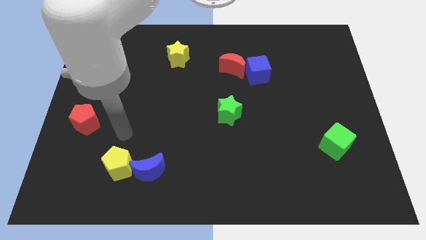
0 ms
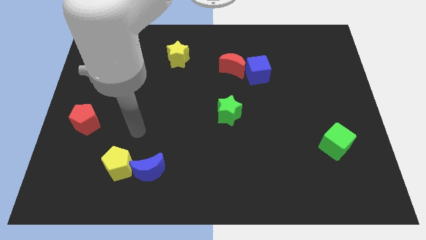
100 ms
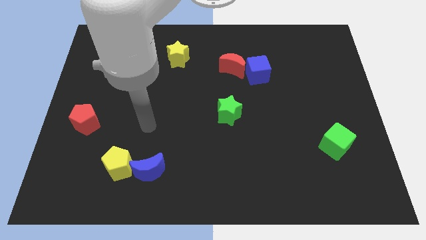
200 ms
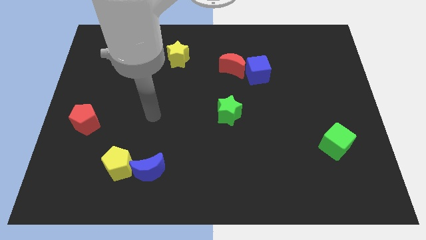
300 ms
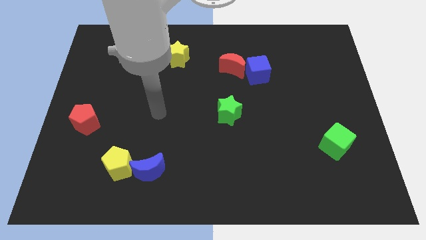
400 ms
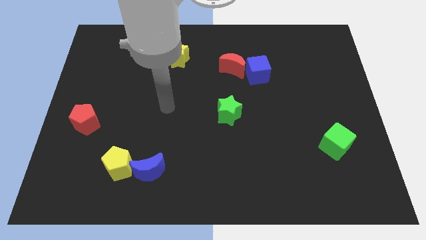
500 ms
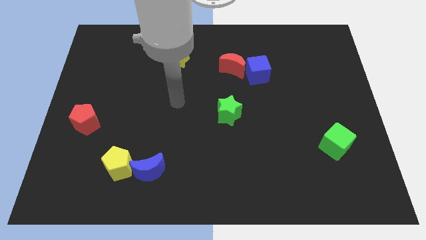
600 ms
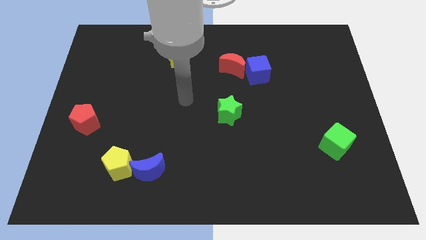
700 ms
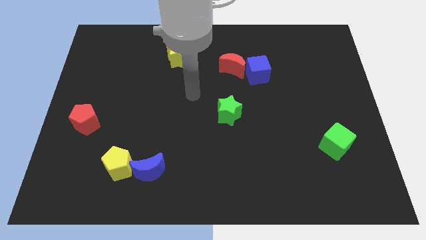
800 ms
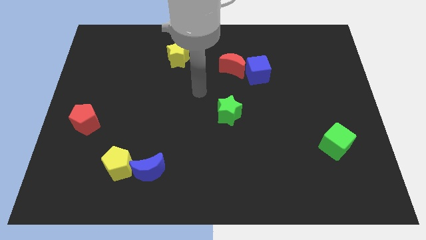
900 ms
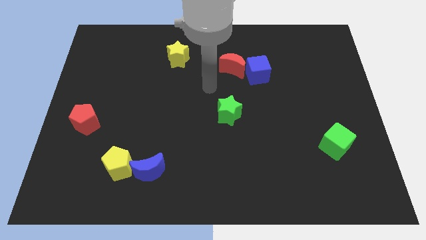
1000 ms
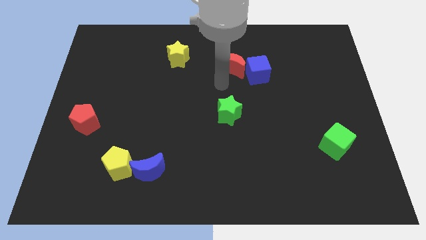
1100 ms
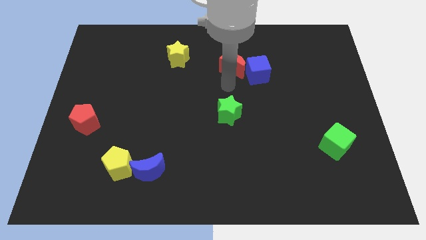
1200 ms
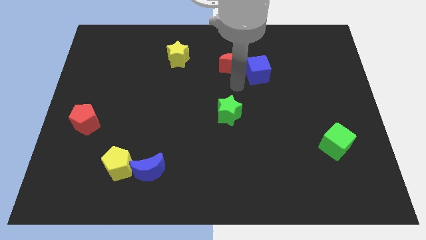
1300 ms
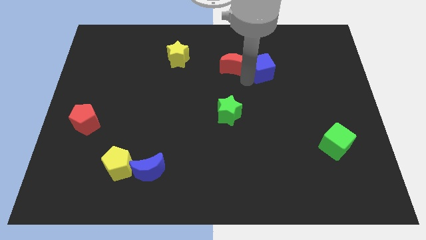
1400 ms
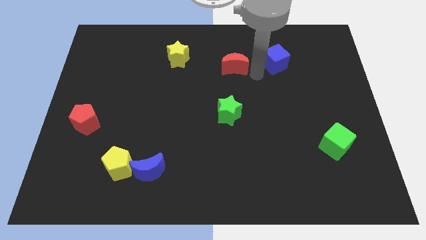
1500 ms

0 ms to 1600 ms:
separate the red moon from the blue cube

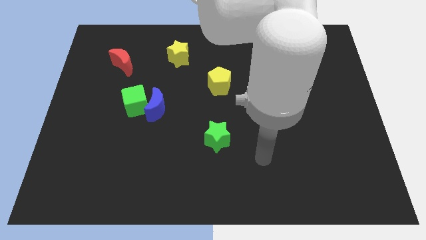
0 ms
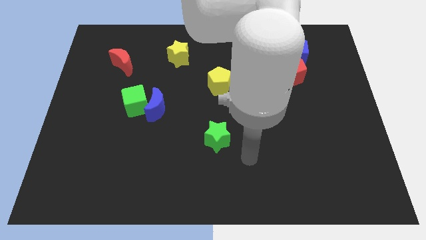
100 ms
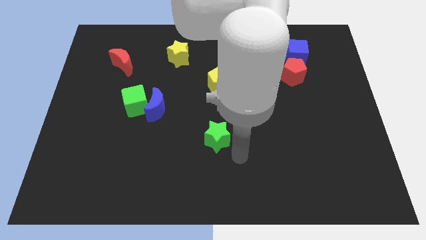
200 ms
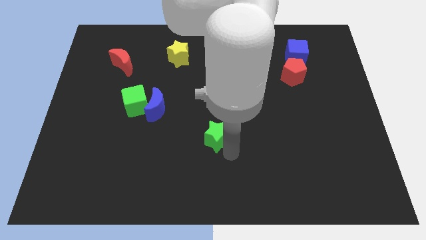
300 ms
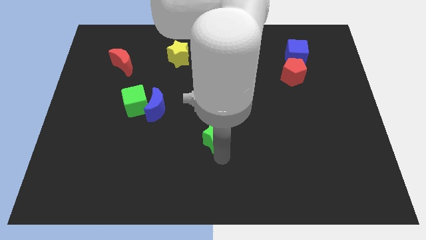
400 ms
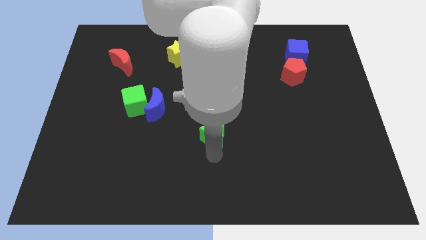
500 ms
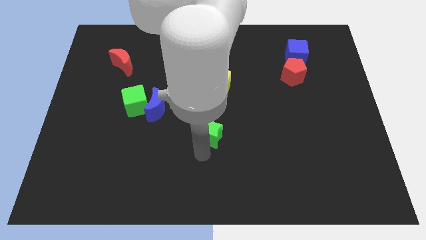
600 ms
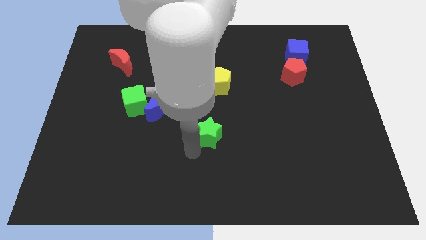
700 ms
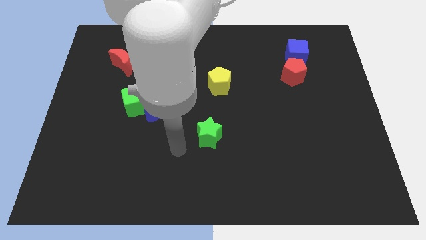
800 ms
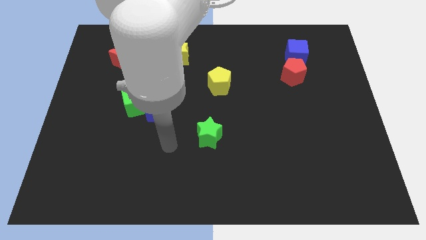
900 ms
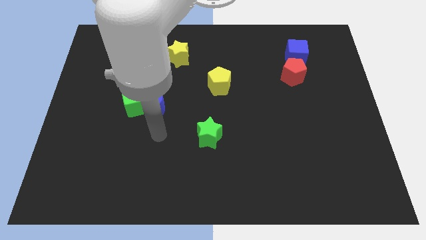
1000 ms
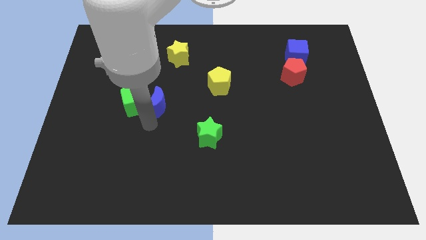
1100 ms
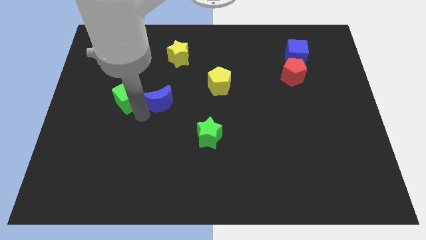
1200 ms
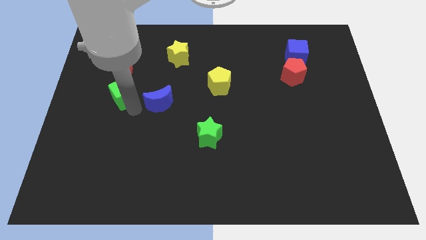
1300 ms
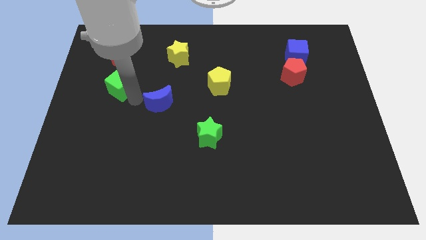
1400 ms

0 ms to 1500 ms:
pull the blue moon apart from the green cube

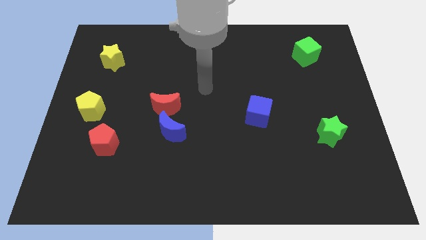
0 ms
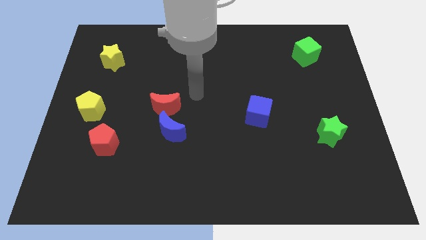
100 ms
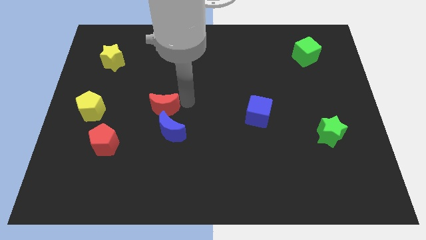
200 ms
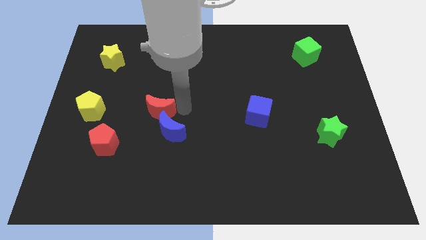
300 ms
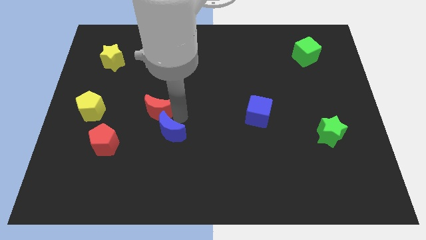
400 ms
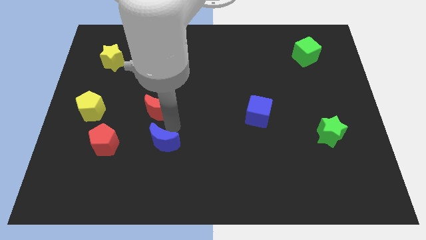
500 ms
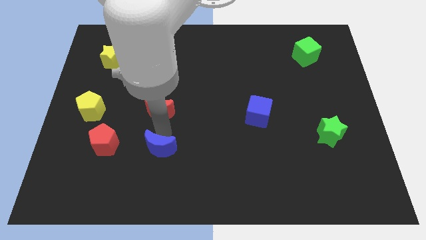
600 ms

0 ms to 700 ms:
move the red moon away from the blue moon

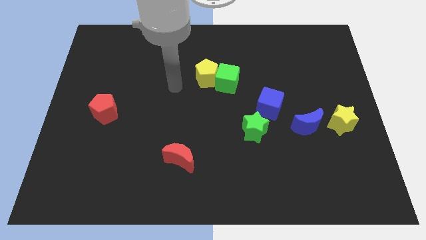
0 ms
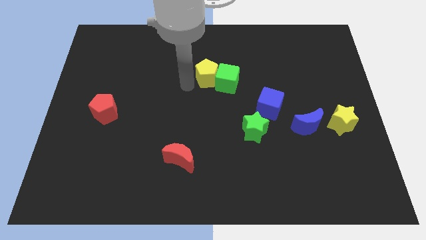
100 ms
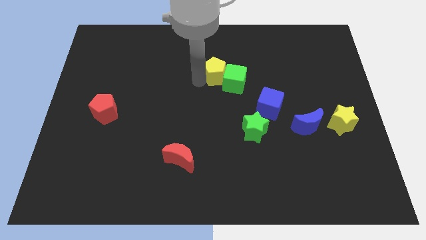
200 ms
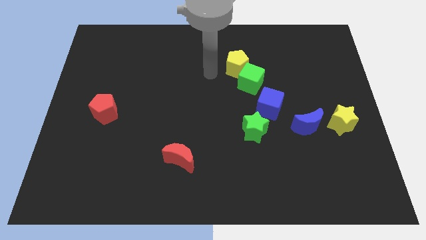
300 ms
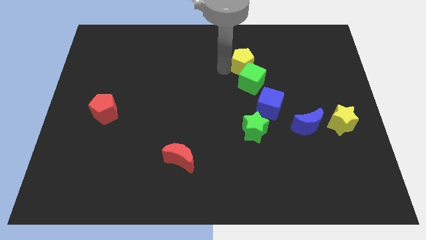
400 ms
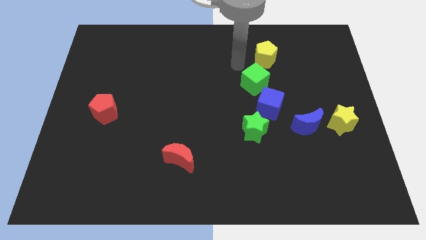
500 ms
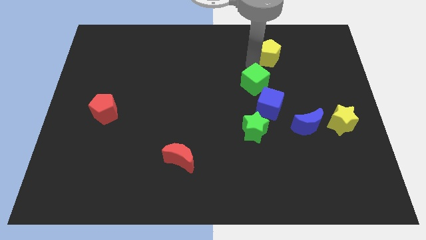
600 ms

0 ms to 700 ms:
move the green cube away from the yellow pentagon

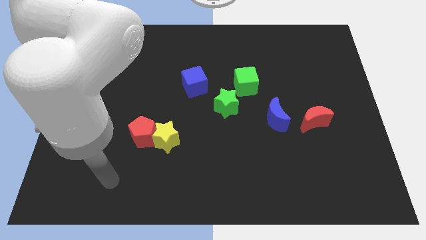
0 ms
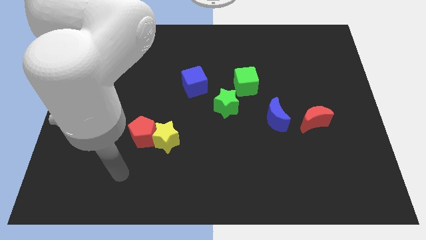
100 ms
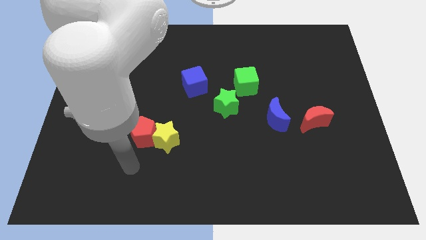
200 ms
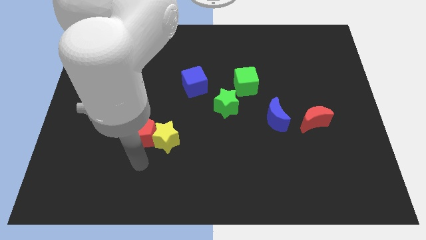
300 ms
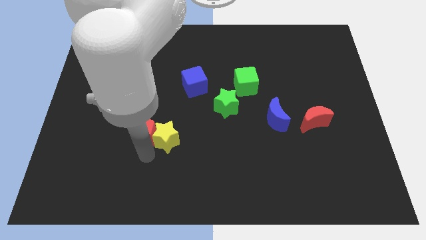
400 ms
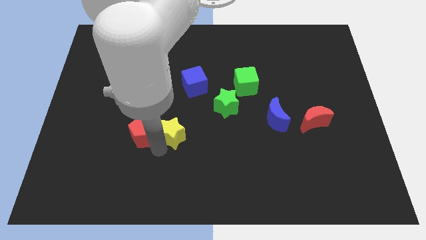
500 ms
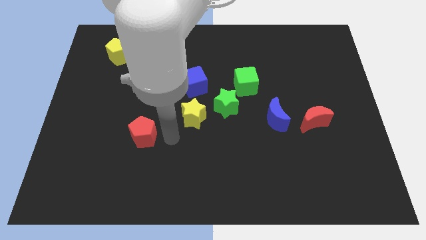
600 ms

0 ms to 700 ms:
pull the red pentagon apart from the yellow star

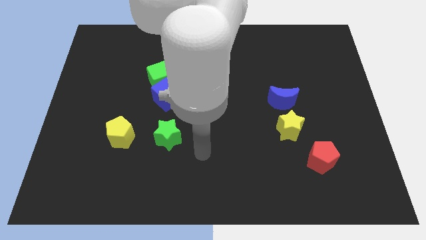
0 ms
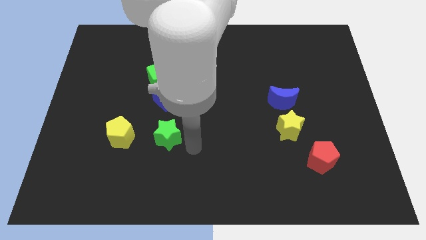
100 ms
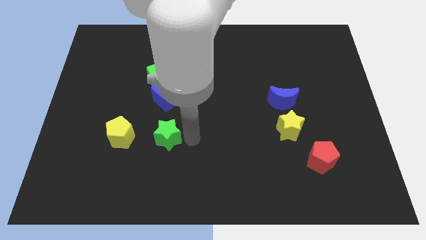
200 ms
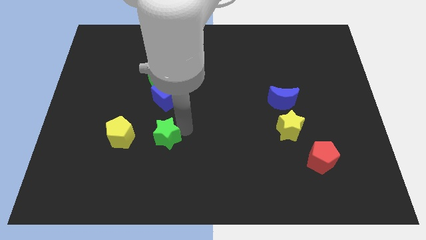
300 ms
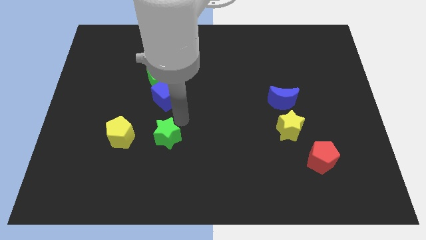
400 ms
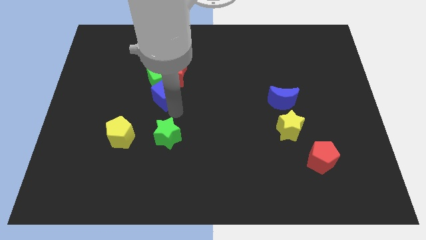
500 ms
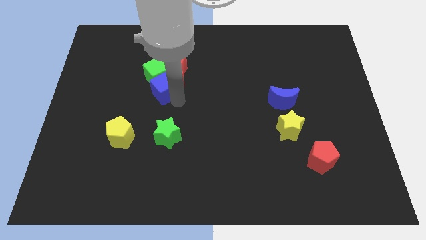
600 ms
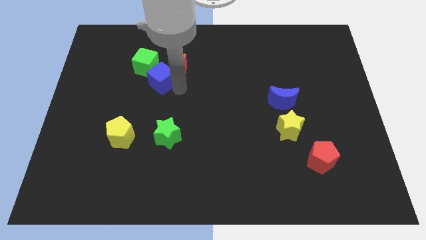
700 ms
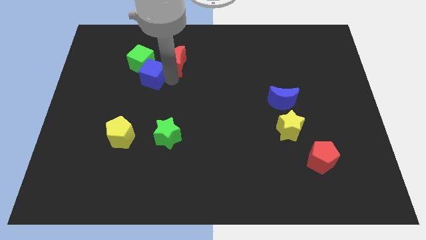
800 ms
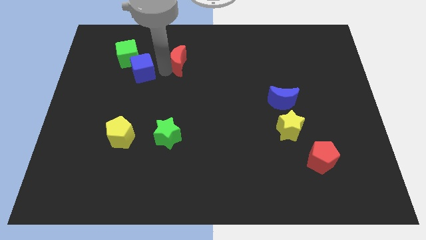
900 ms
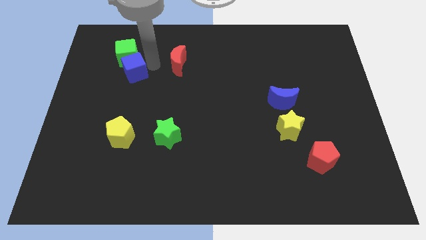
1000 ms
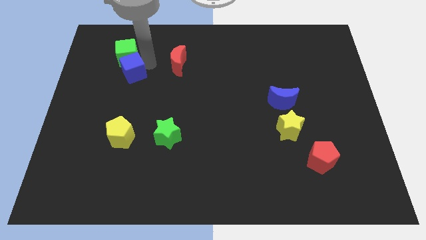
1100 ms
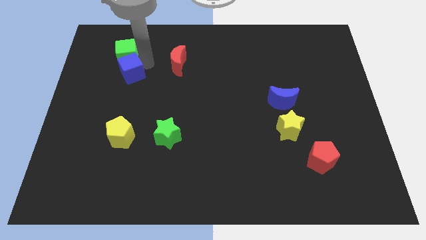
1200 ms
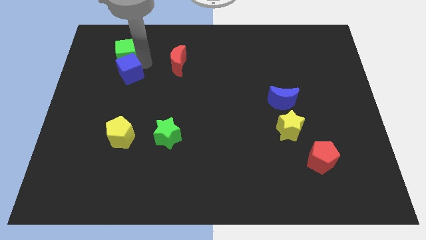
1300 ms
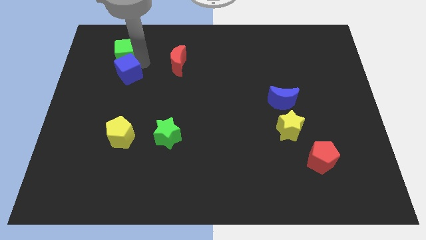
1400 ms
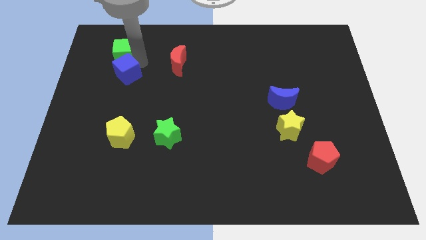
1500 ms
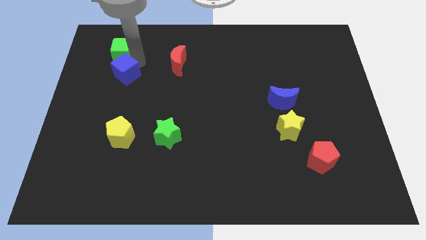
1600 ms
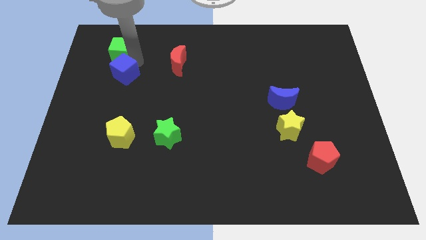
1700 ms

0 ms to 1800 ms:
separate the green cube from the red moon and blue cube

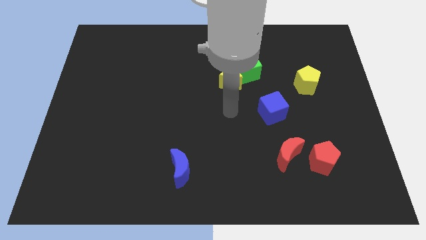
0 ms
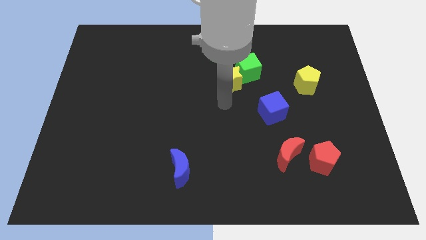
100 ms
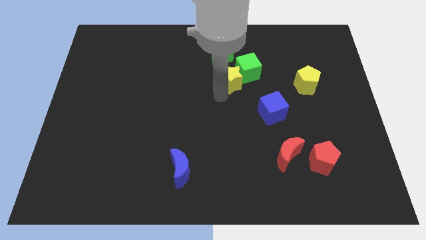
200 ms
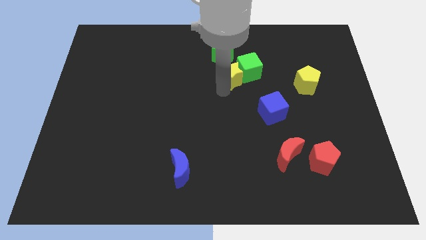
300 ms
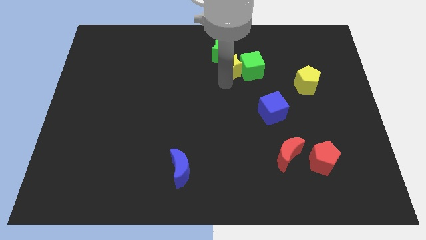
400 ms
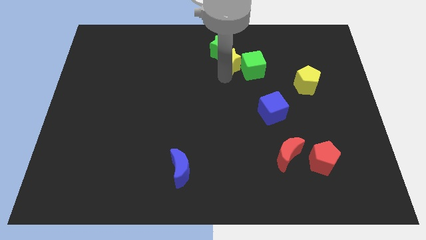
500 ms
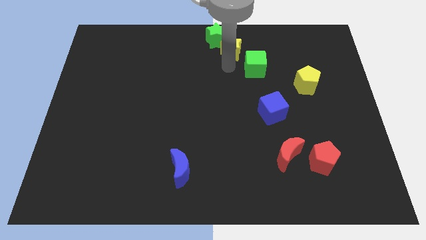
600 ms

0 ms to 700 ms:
pull the green cube apart from the yellow star and green star

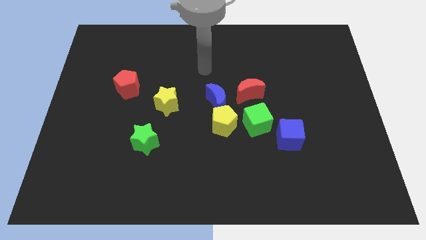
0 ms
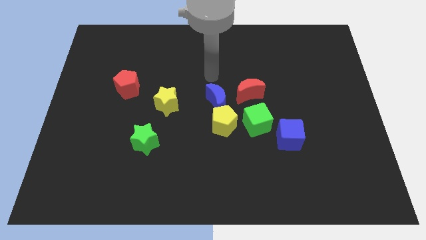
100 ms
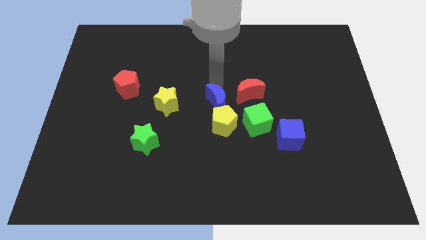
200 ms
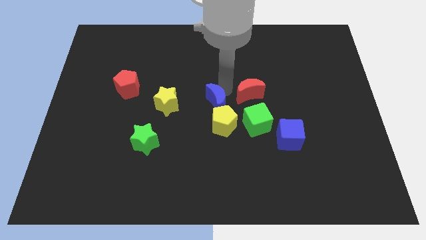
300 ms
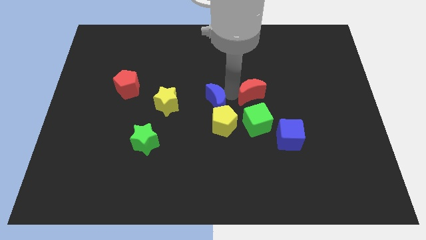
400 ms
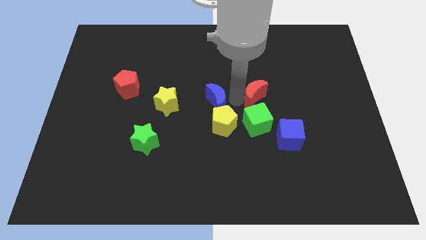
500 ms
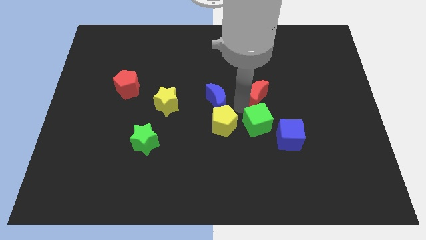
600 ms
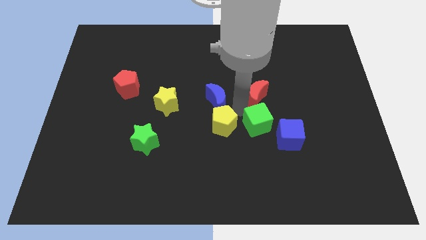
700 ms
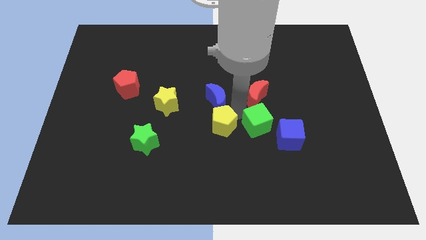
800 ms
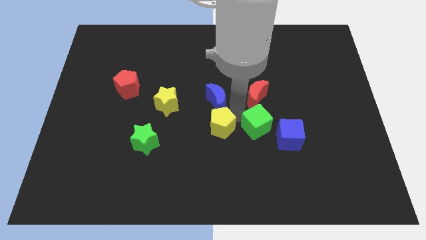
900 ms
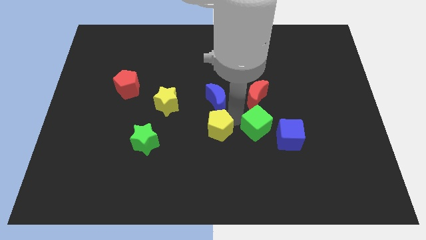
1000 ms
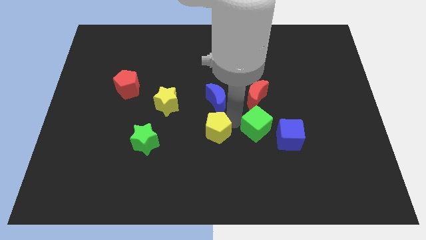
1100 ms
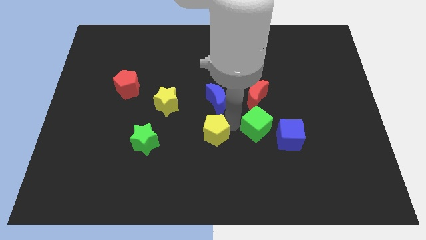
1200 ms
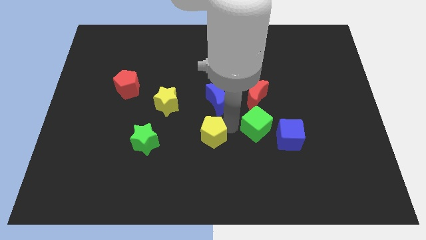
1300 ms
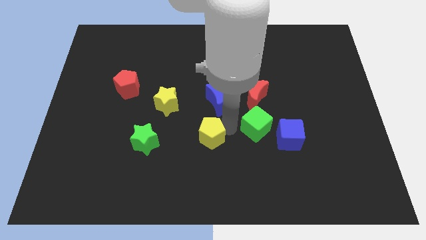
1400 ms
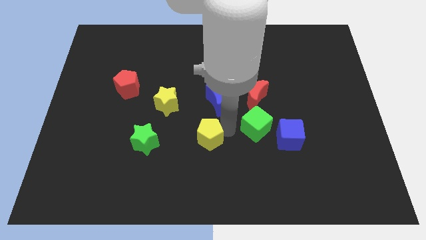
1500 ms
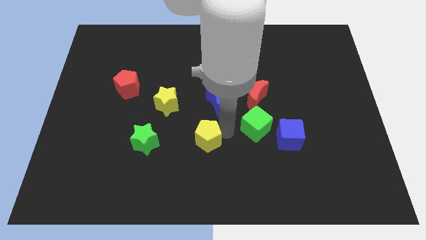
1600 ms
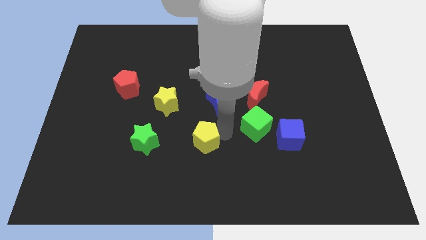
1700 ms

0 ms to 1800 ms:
move the yellow pentagon away from the blue moon and green cube

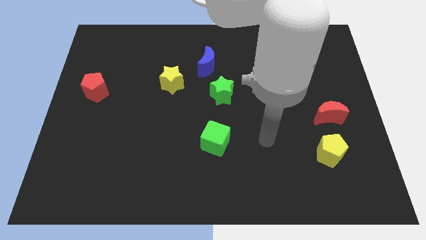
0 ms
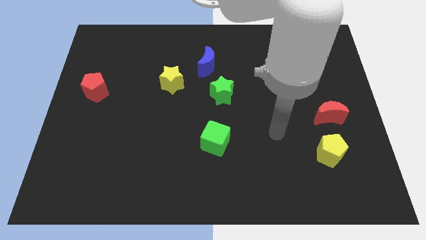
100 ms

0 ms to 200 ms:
move the red moon away from the yellow pentagon
